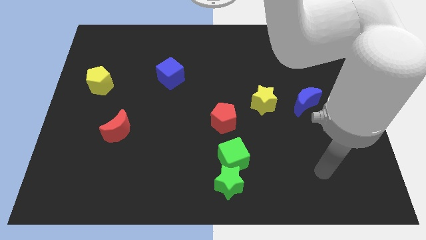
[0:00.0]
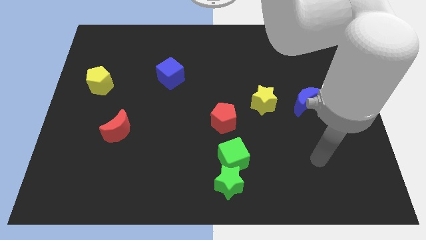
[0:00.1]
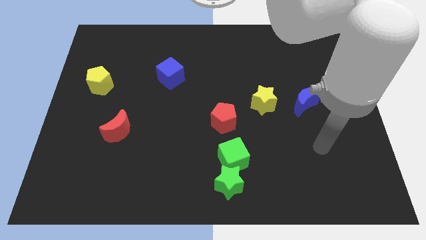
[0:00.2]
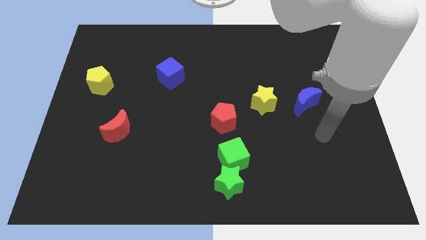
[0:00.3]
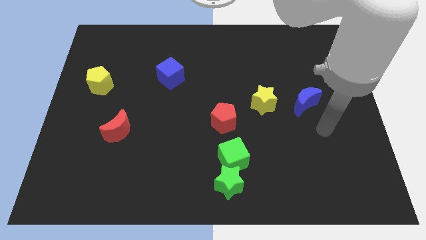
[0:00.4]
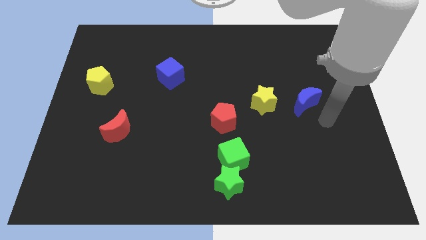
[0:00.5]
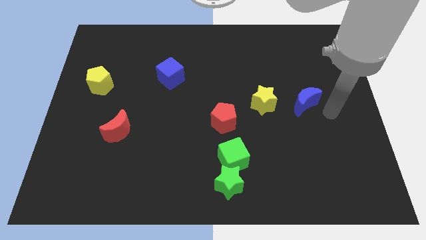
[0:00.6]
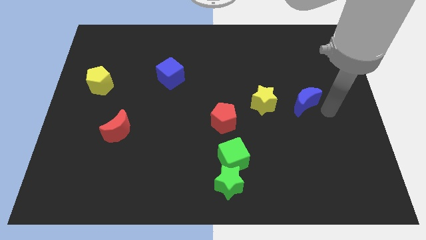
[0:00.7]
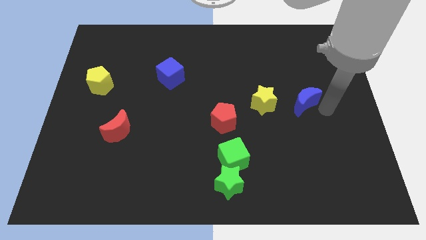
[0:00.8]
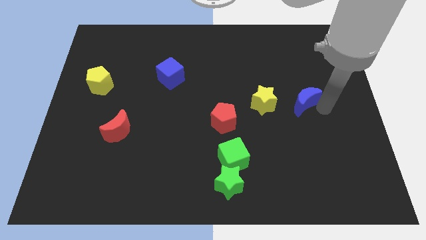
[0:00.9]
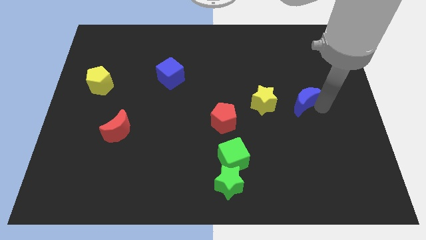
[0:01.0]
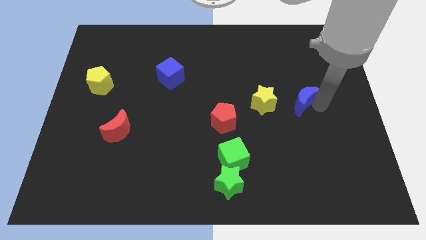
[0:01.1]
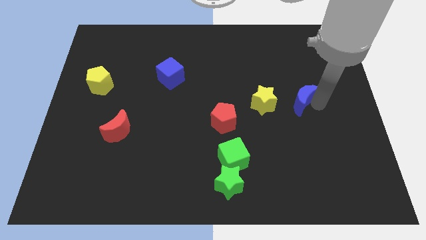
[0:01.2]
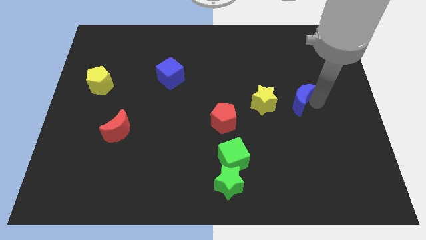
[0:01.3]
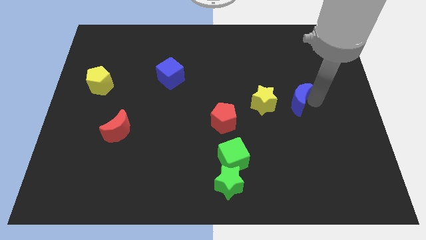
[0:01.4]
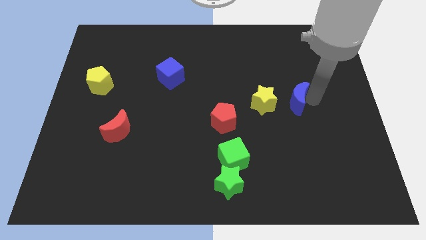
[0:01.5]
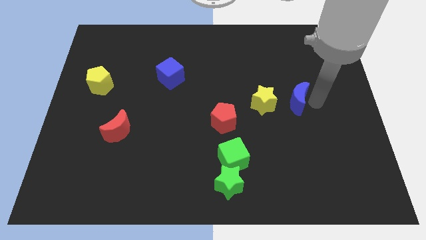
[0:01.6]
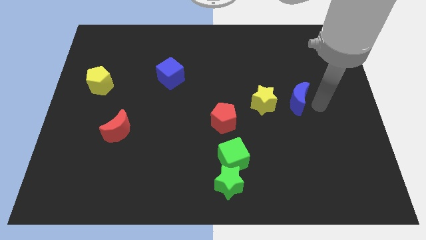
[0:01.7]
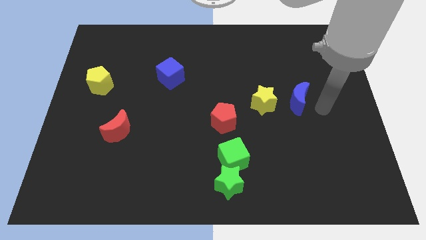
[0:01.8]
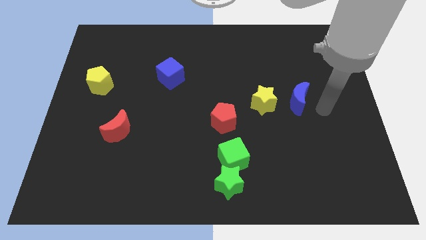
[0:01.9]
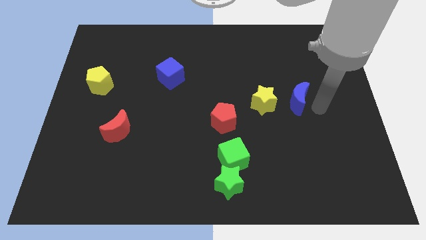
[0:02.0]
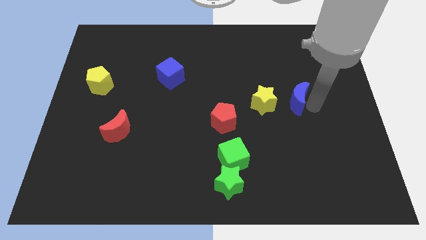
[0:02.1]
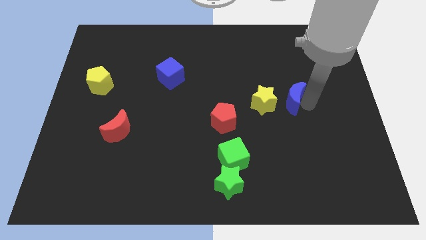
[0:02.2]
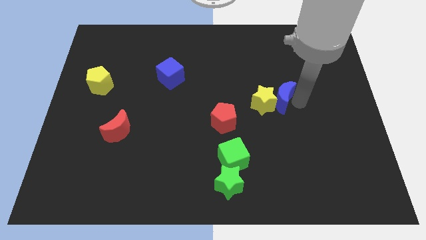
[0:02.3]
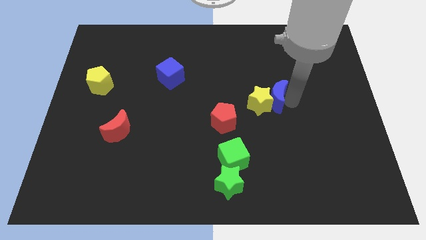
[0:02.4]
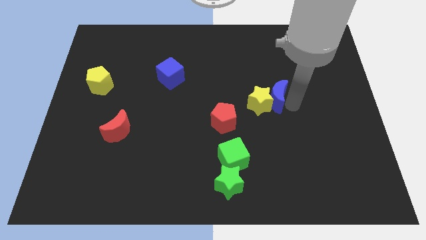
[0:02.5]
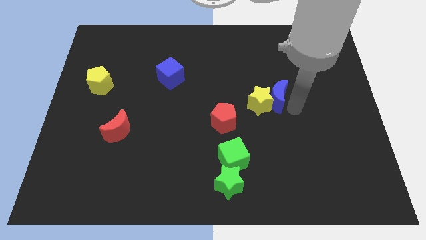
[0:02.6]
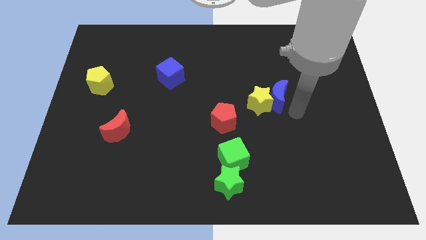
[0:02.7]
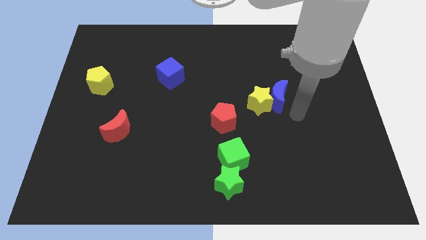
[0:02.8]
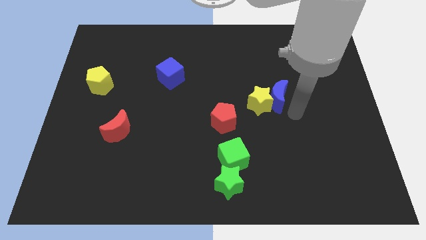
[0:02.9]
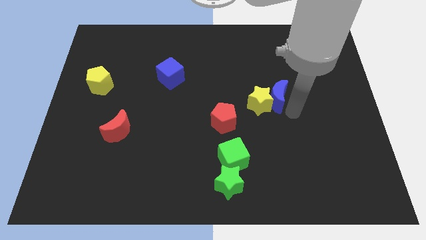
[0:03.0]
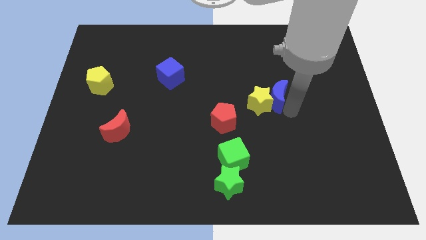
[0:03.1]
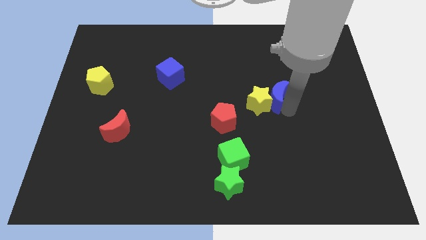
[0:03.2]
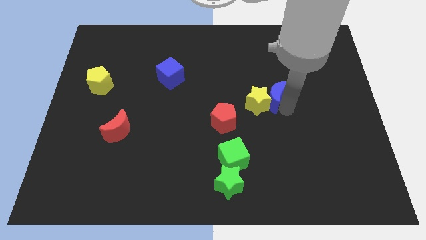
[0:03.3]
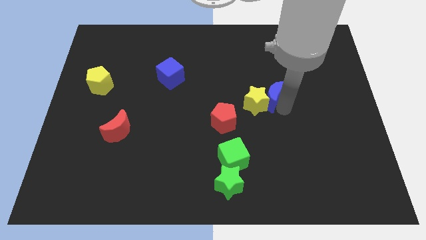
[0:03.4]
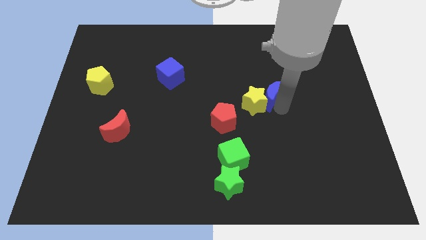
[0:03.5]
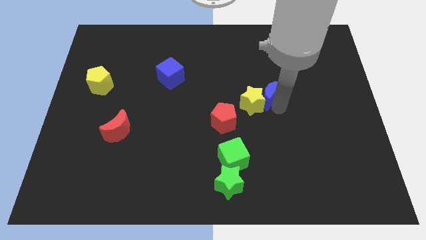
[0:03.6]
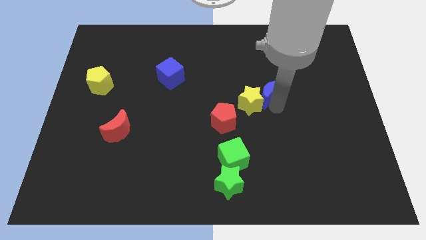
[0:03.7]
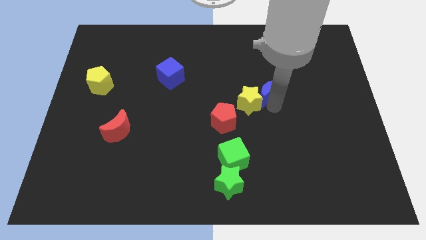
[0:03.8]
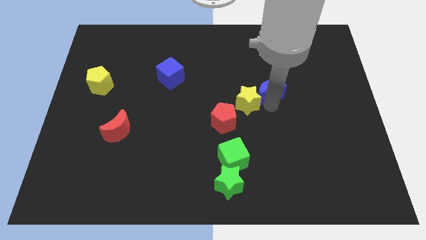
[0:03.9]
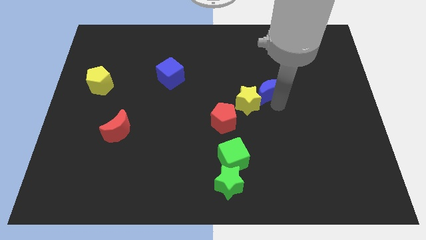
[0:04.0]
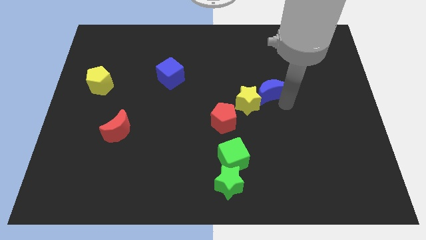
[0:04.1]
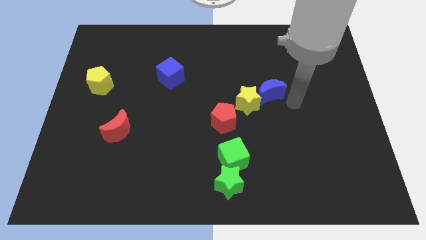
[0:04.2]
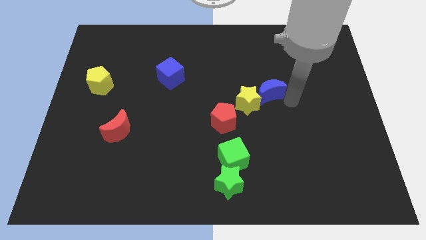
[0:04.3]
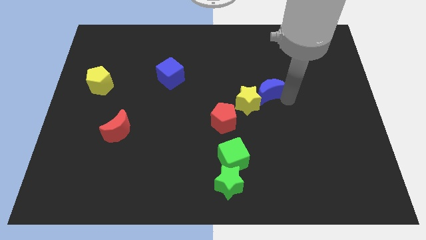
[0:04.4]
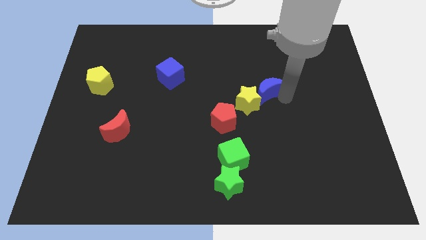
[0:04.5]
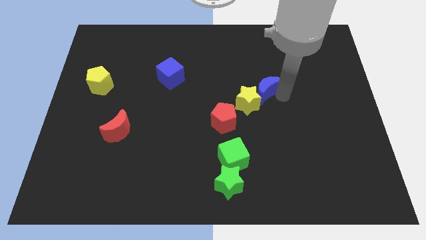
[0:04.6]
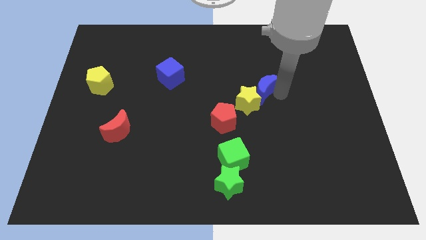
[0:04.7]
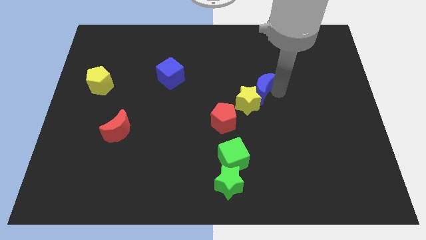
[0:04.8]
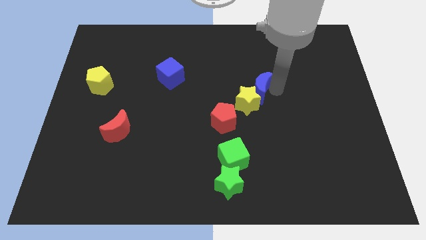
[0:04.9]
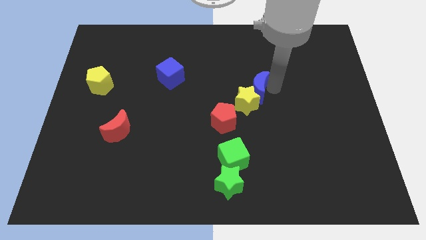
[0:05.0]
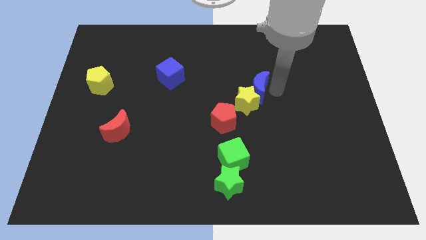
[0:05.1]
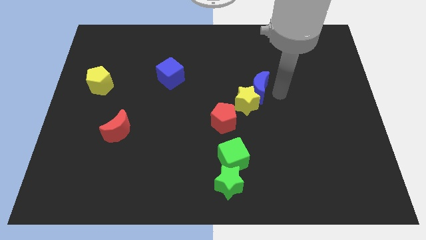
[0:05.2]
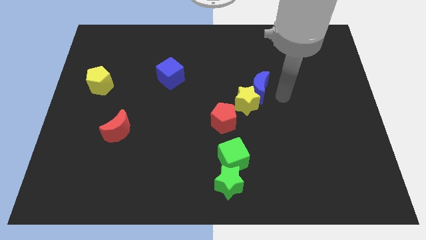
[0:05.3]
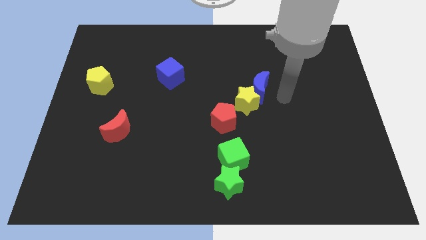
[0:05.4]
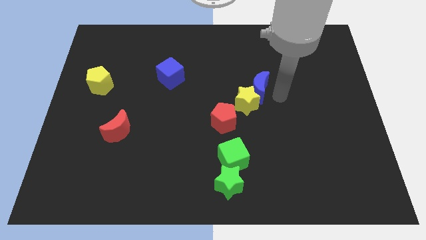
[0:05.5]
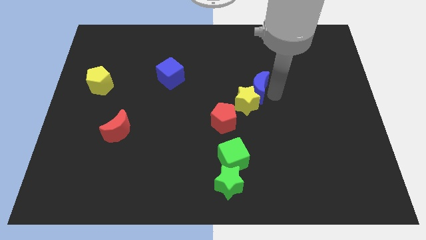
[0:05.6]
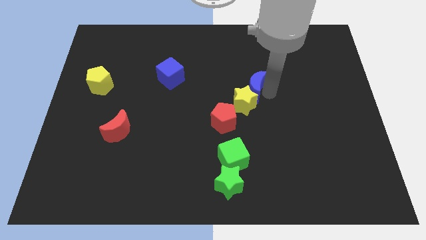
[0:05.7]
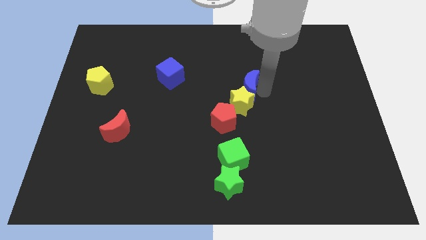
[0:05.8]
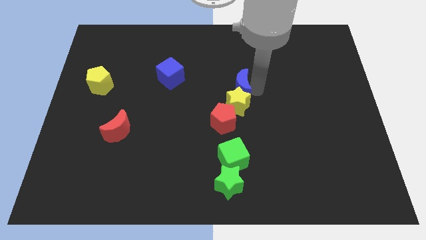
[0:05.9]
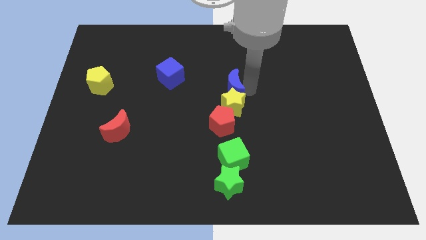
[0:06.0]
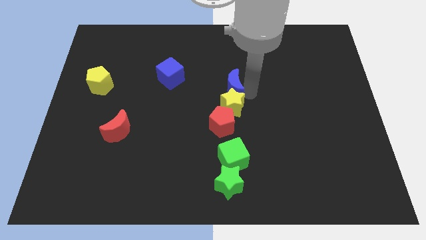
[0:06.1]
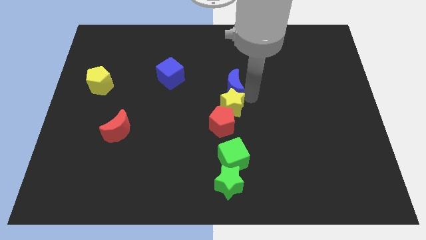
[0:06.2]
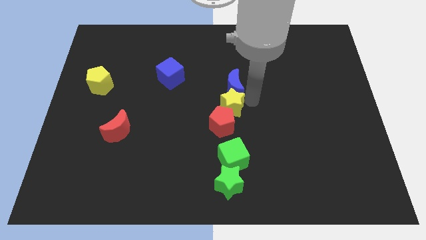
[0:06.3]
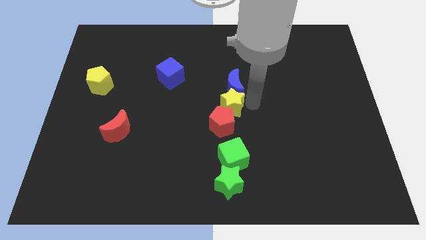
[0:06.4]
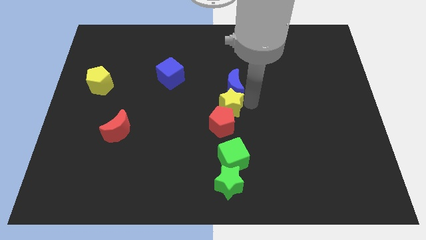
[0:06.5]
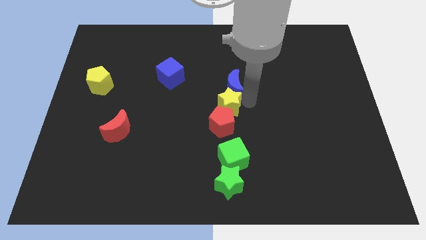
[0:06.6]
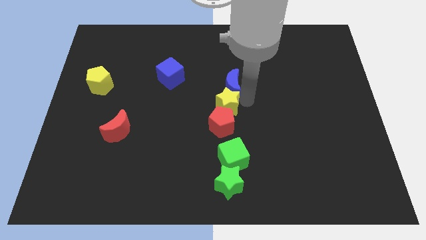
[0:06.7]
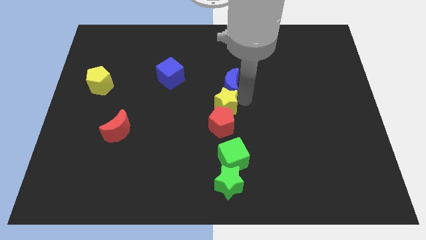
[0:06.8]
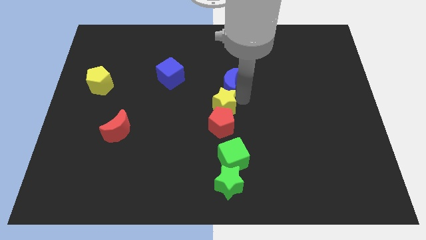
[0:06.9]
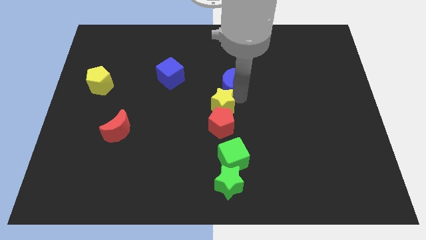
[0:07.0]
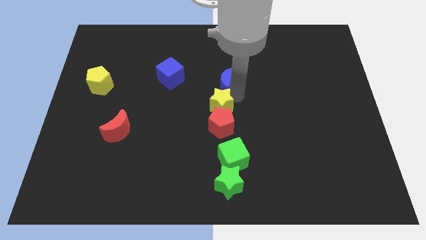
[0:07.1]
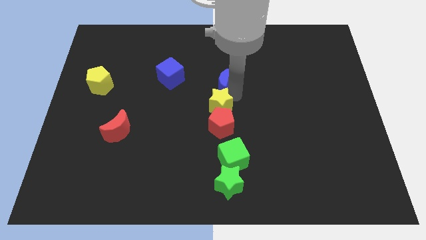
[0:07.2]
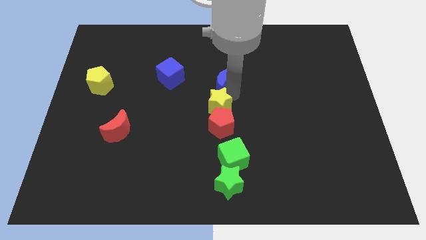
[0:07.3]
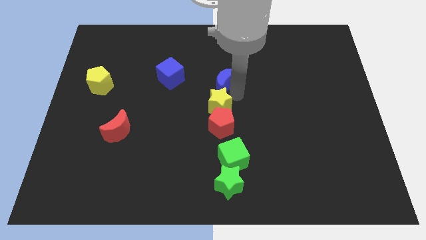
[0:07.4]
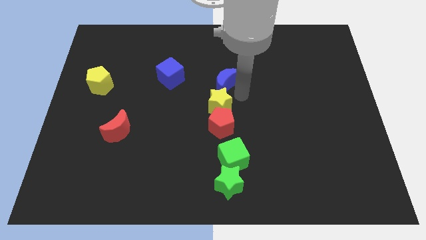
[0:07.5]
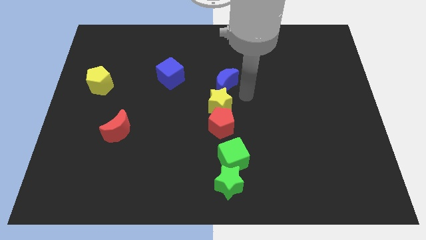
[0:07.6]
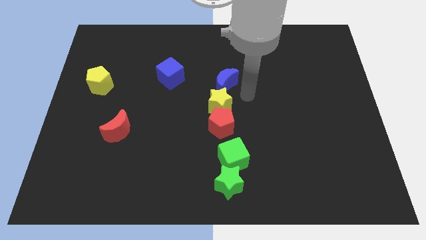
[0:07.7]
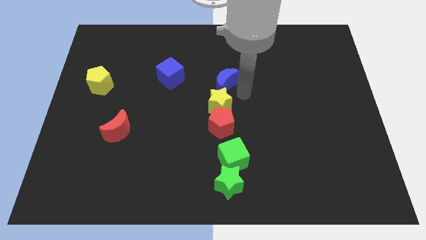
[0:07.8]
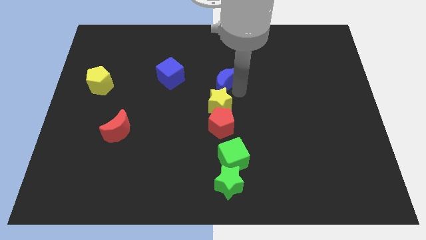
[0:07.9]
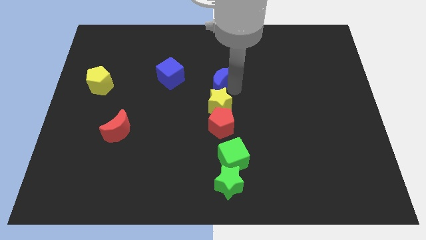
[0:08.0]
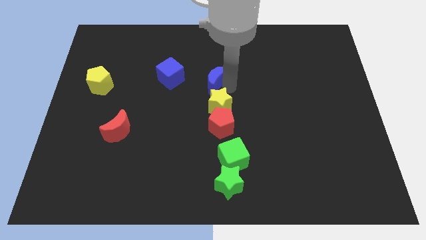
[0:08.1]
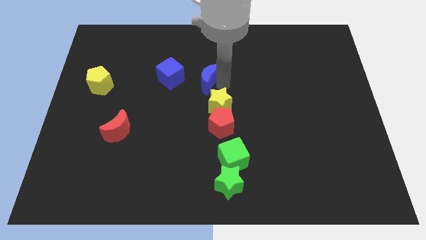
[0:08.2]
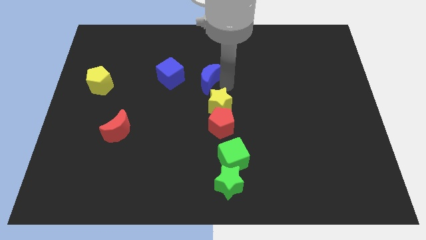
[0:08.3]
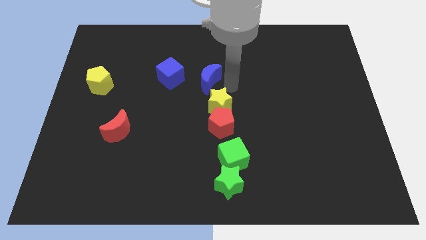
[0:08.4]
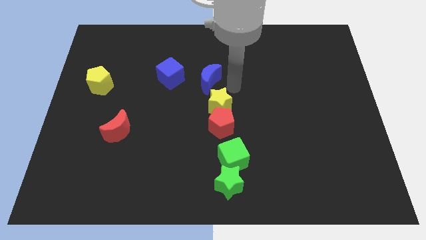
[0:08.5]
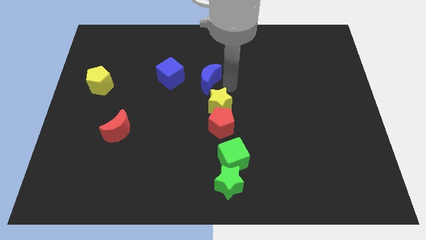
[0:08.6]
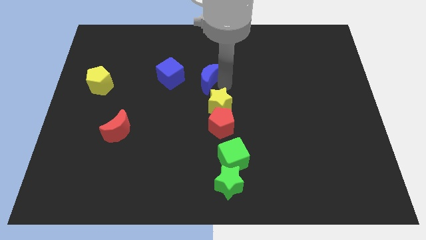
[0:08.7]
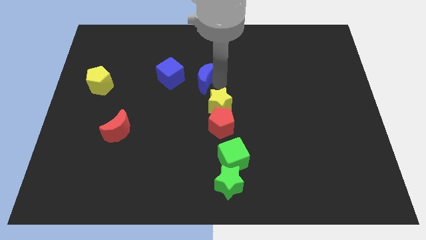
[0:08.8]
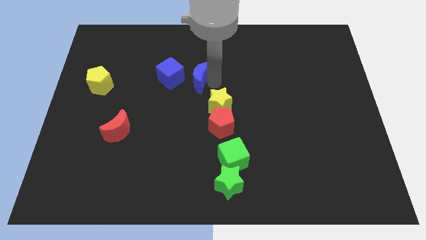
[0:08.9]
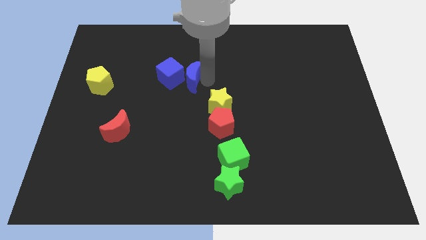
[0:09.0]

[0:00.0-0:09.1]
put the blue moon close to the blue cube
